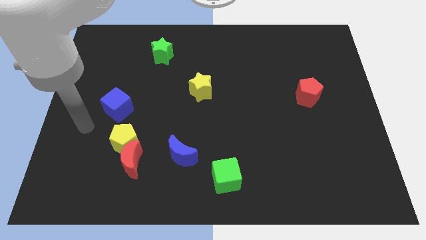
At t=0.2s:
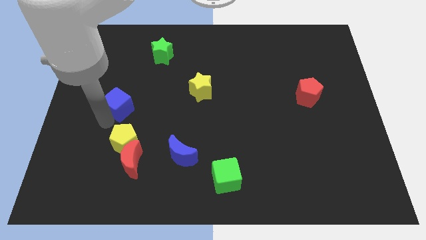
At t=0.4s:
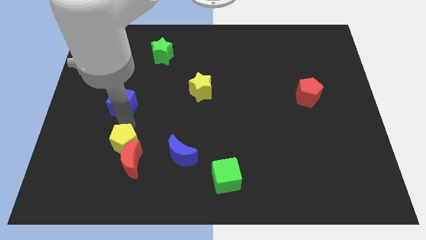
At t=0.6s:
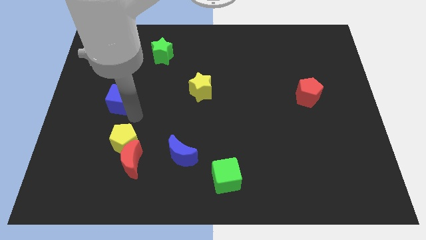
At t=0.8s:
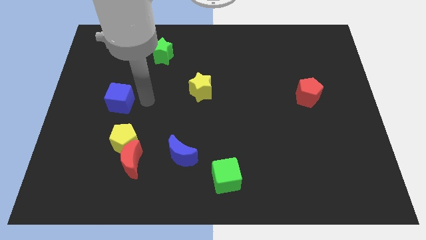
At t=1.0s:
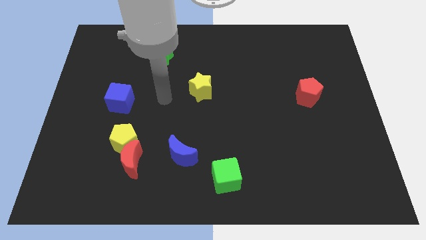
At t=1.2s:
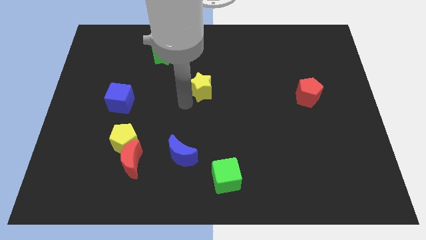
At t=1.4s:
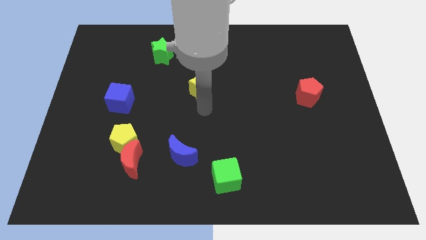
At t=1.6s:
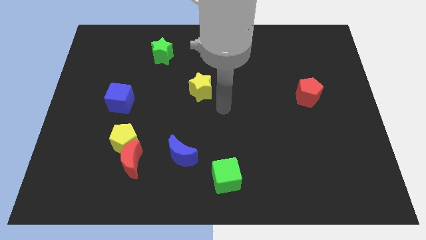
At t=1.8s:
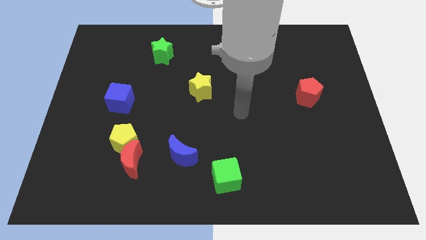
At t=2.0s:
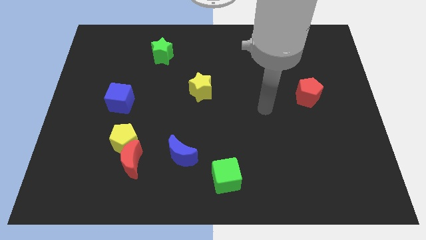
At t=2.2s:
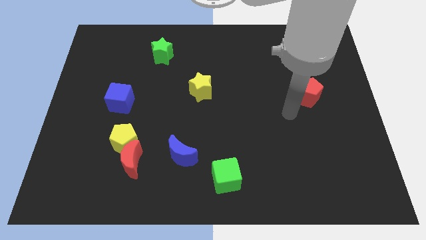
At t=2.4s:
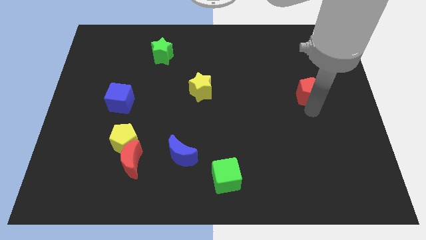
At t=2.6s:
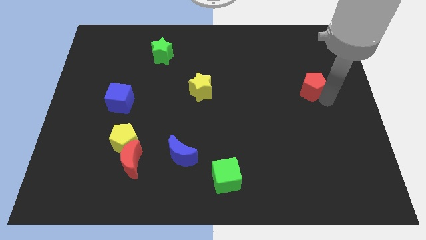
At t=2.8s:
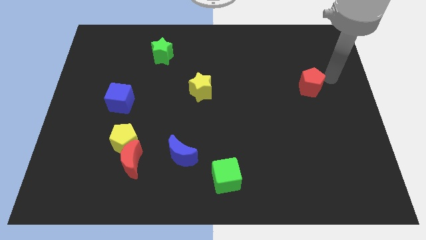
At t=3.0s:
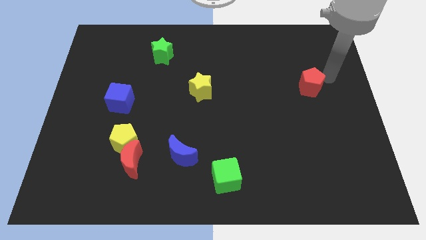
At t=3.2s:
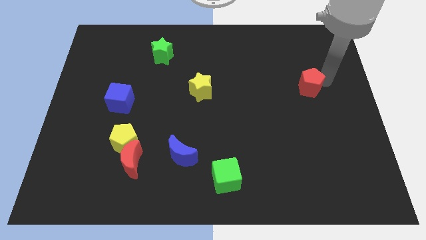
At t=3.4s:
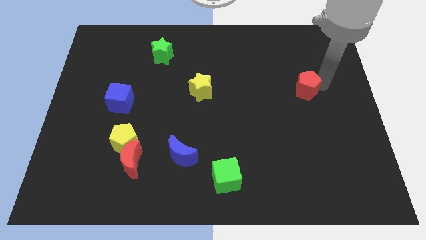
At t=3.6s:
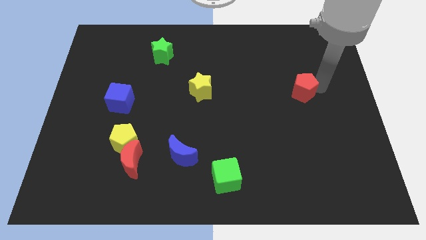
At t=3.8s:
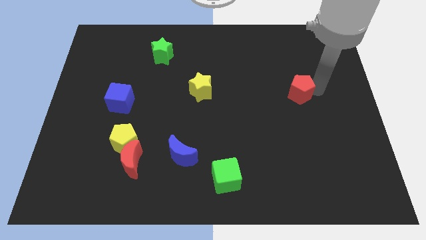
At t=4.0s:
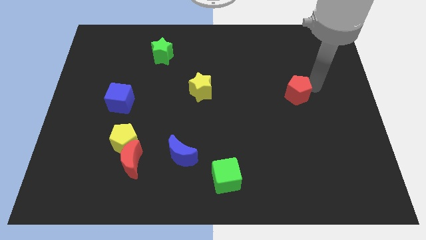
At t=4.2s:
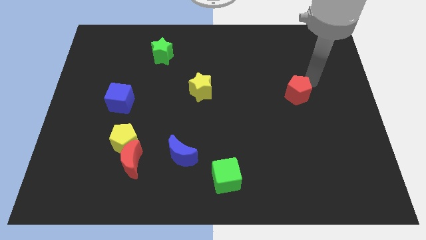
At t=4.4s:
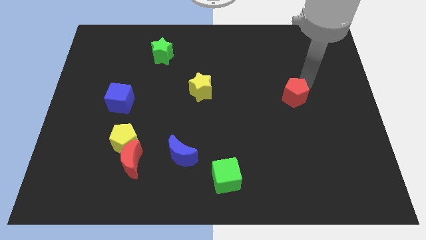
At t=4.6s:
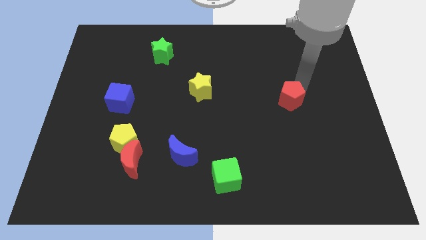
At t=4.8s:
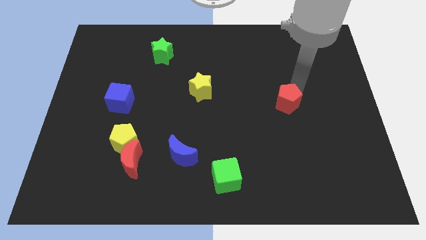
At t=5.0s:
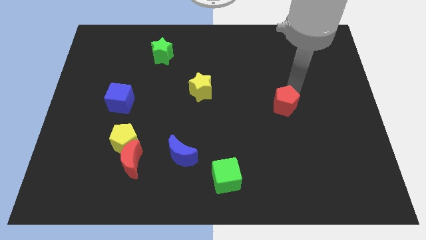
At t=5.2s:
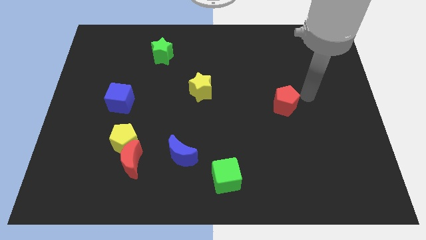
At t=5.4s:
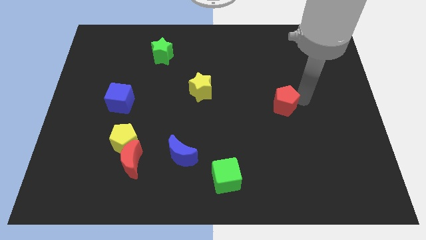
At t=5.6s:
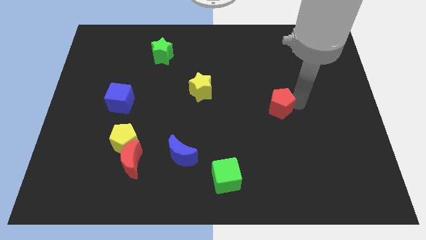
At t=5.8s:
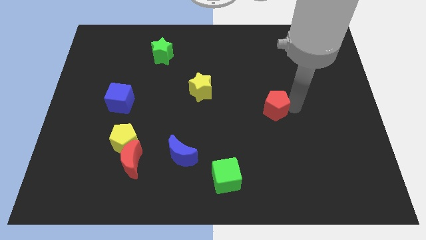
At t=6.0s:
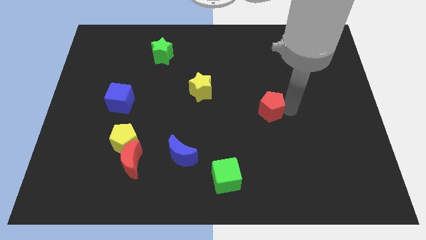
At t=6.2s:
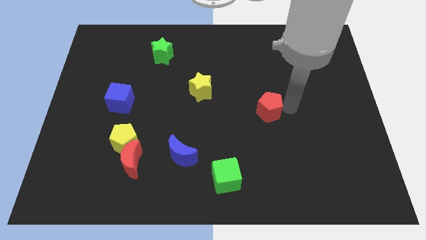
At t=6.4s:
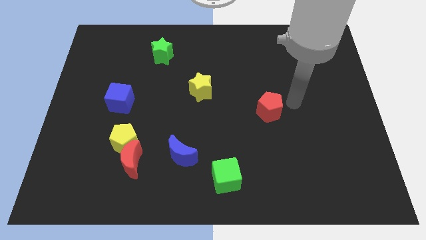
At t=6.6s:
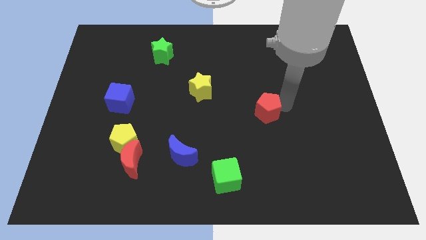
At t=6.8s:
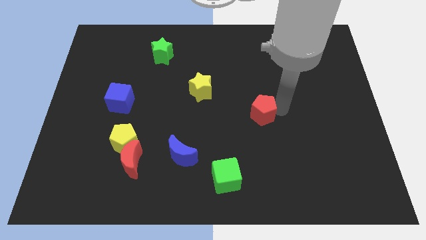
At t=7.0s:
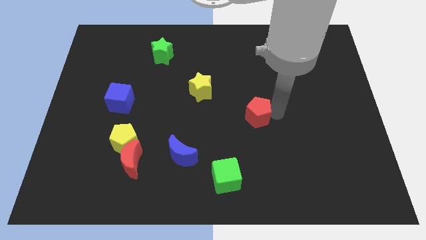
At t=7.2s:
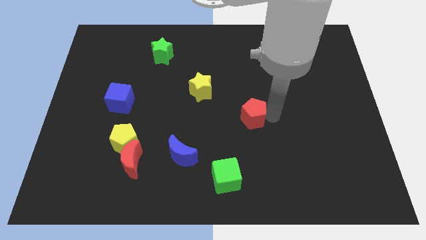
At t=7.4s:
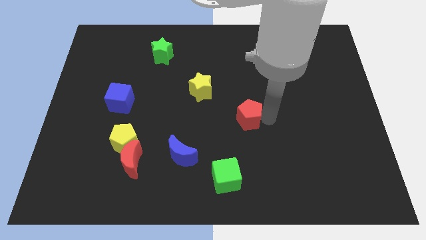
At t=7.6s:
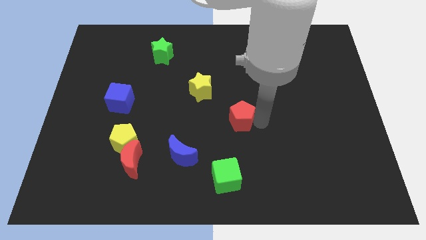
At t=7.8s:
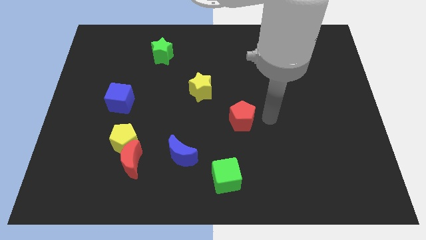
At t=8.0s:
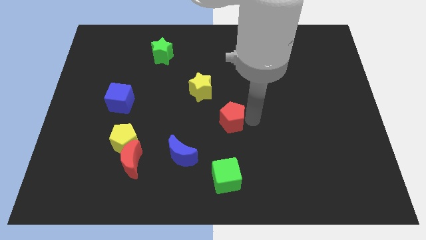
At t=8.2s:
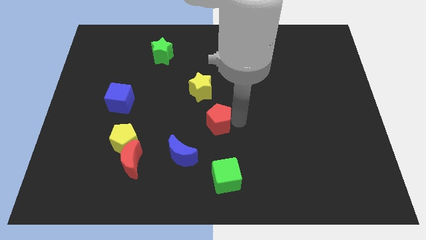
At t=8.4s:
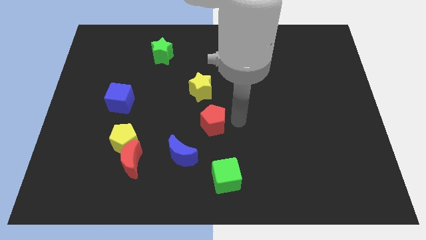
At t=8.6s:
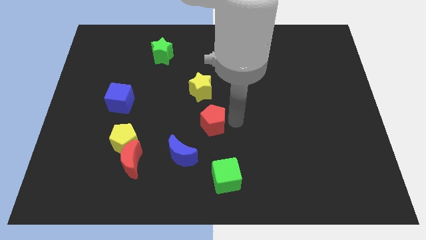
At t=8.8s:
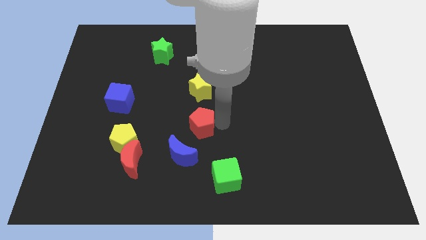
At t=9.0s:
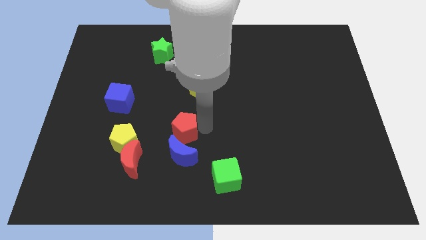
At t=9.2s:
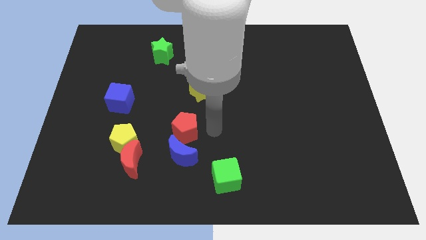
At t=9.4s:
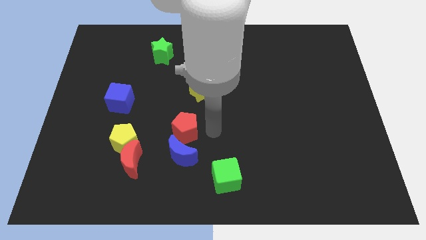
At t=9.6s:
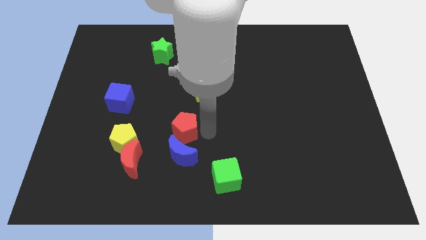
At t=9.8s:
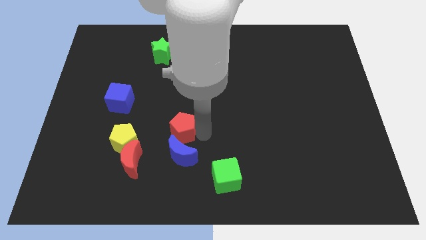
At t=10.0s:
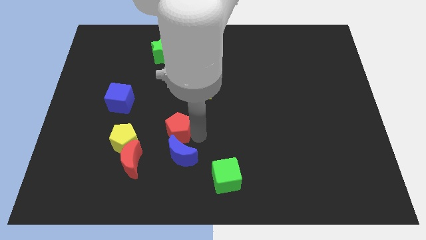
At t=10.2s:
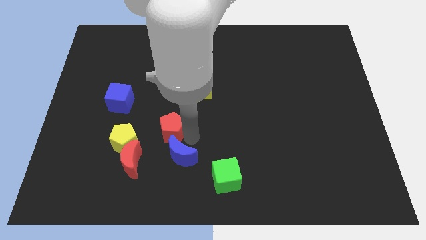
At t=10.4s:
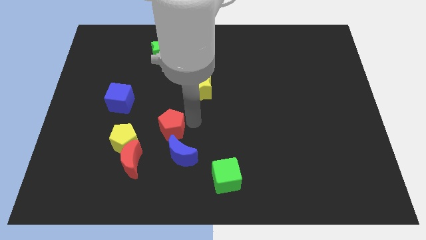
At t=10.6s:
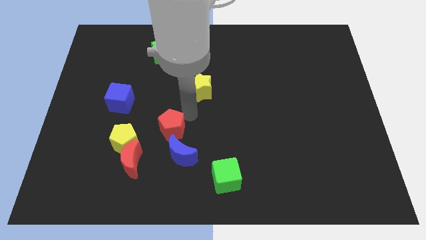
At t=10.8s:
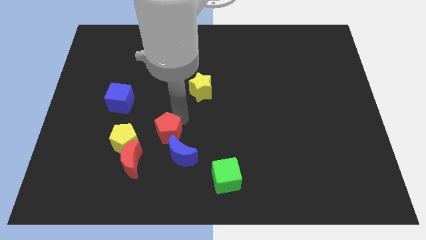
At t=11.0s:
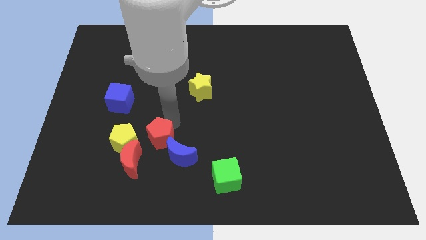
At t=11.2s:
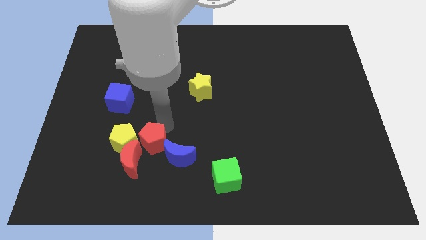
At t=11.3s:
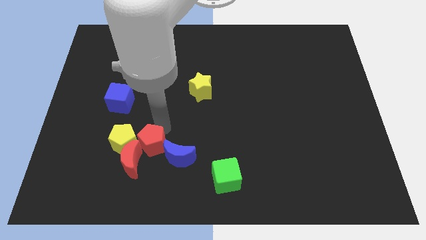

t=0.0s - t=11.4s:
put the red pentagon close to the red moon

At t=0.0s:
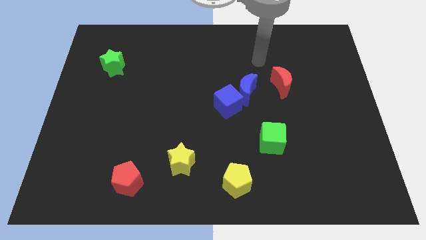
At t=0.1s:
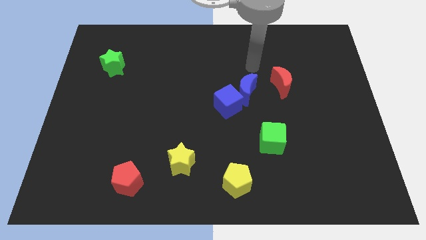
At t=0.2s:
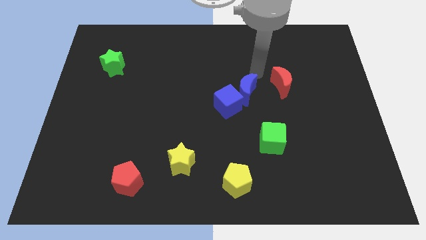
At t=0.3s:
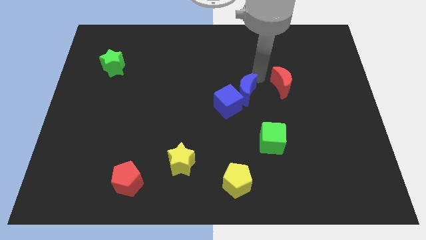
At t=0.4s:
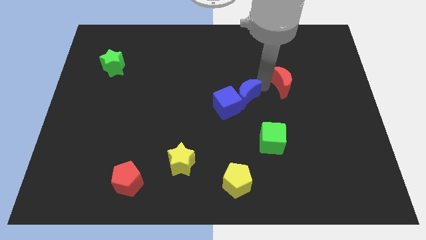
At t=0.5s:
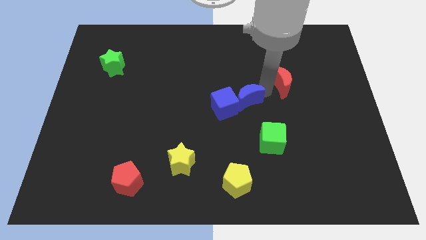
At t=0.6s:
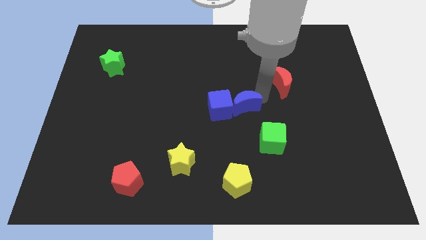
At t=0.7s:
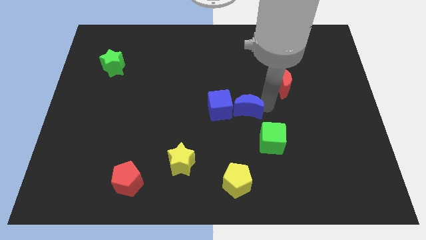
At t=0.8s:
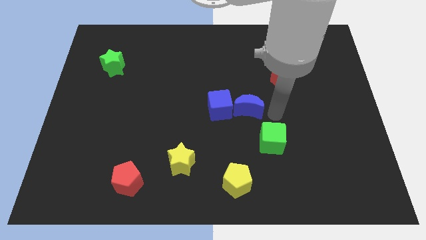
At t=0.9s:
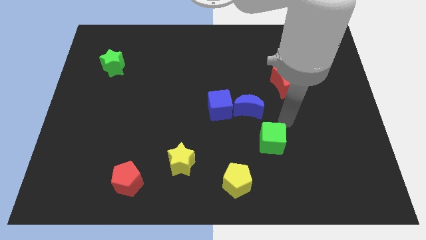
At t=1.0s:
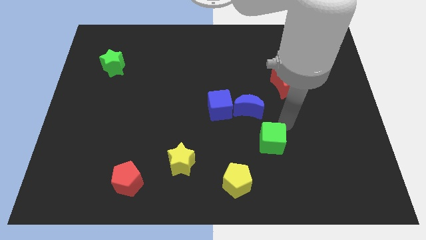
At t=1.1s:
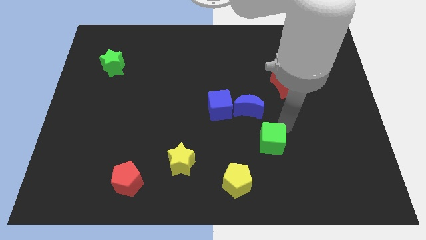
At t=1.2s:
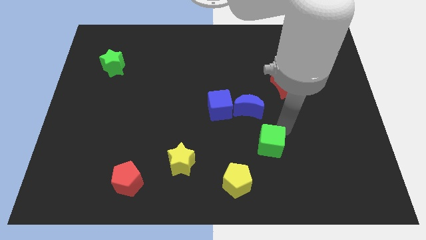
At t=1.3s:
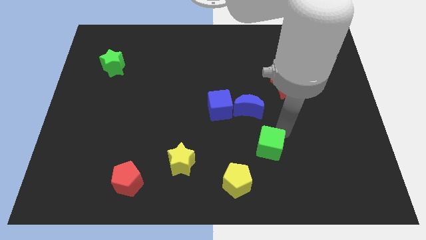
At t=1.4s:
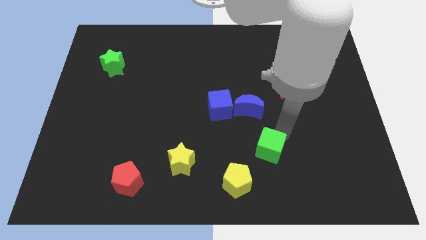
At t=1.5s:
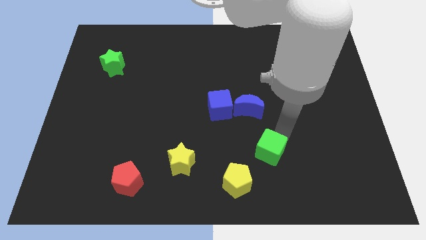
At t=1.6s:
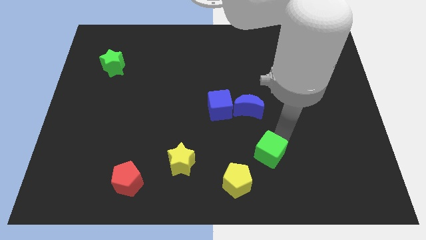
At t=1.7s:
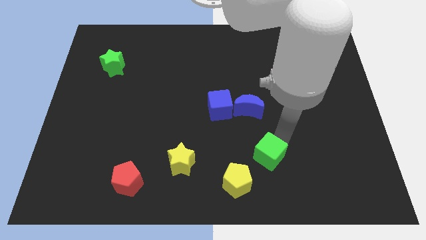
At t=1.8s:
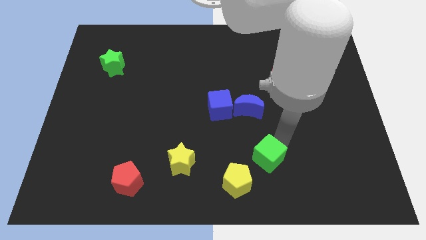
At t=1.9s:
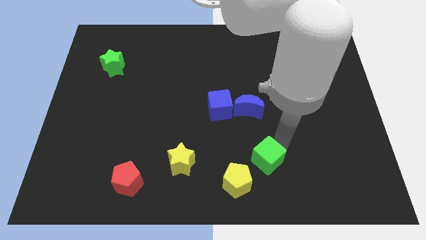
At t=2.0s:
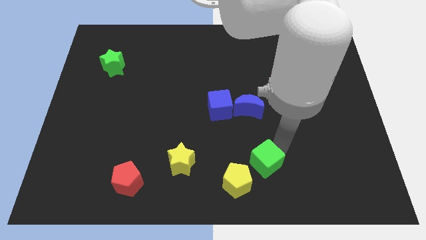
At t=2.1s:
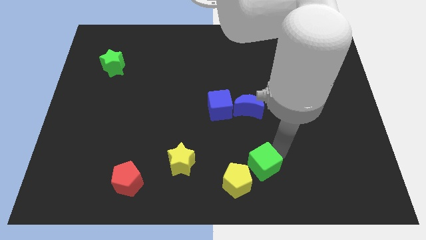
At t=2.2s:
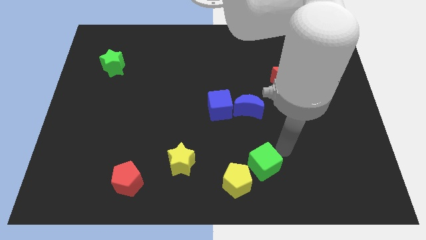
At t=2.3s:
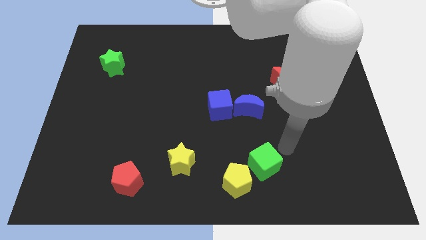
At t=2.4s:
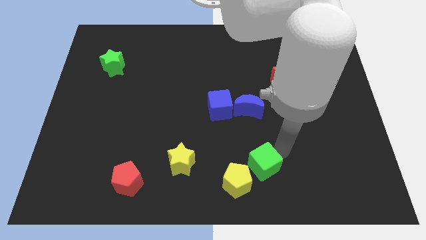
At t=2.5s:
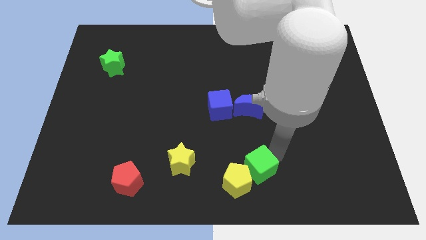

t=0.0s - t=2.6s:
push the green cube to the yellow pentagon
